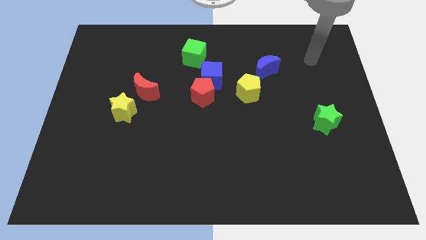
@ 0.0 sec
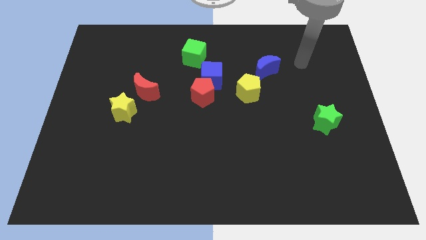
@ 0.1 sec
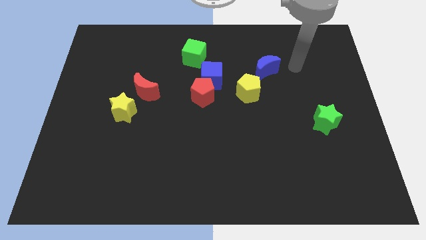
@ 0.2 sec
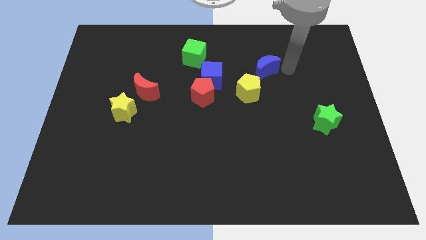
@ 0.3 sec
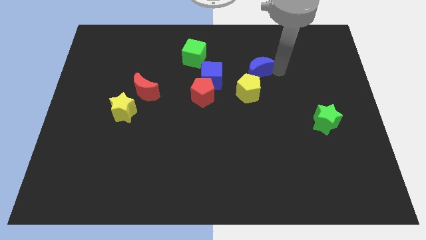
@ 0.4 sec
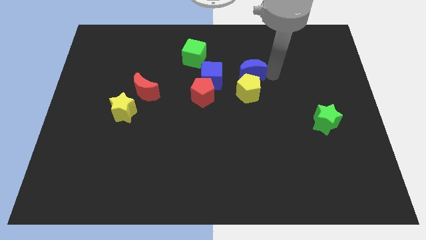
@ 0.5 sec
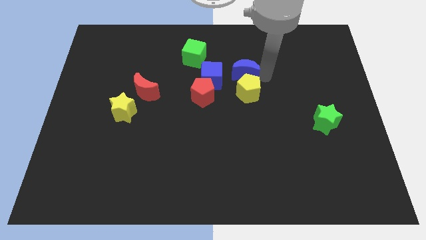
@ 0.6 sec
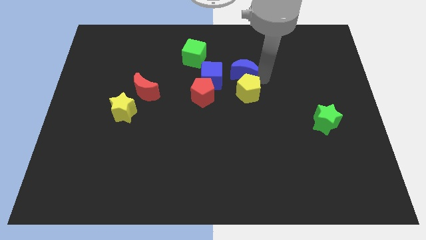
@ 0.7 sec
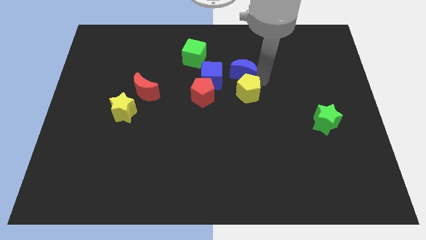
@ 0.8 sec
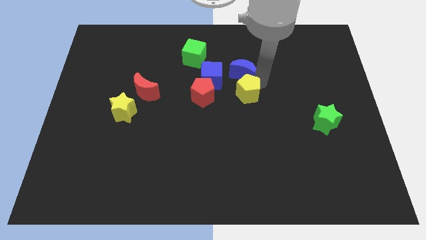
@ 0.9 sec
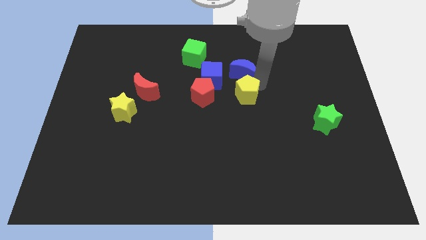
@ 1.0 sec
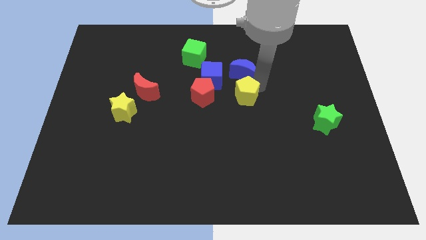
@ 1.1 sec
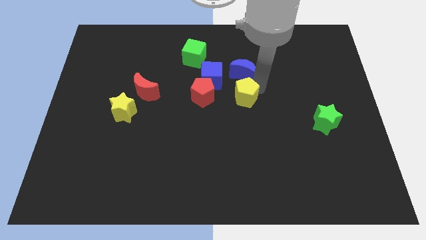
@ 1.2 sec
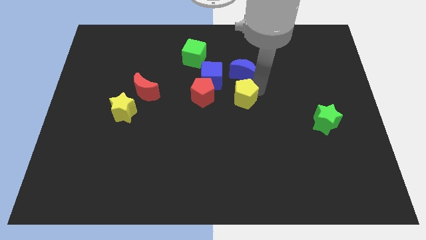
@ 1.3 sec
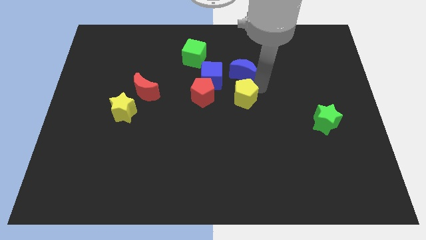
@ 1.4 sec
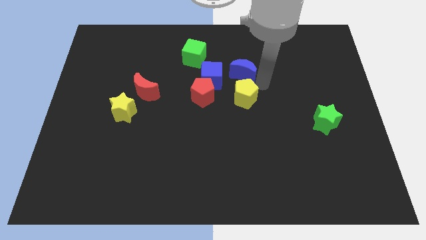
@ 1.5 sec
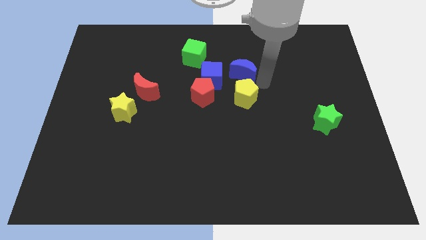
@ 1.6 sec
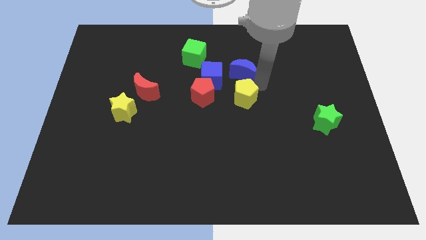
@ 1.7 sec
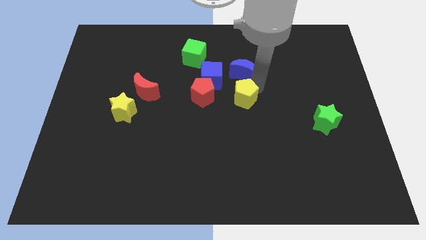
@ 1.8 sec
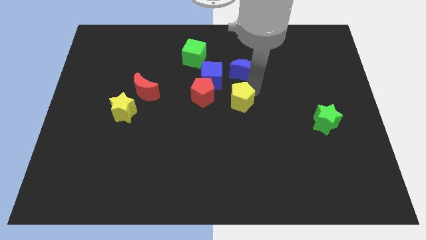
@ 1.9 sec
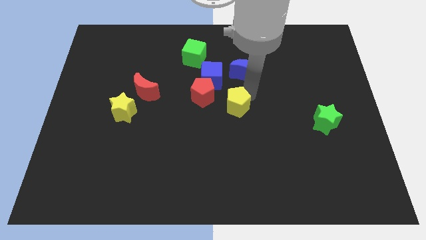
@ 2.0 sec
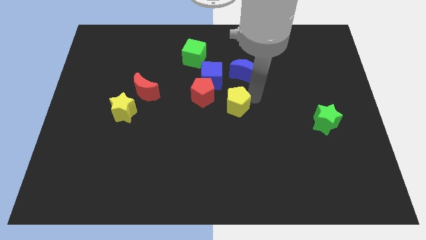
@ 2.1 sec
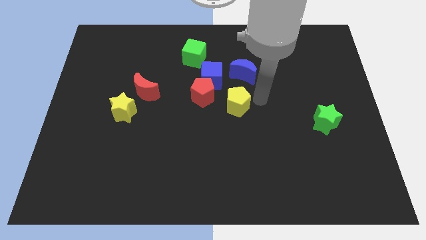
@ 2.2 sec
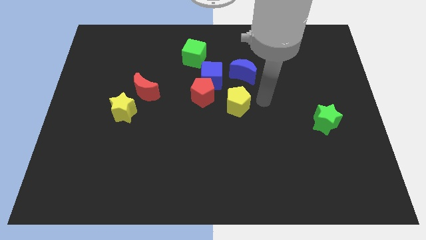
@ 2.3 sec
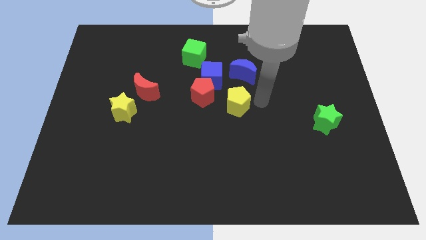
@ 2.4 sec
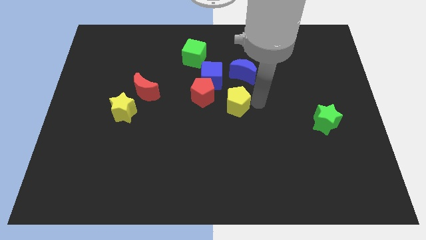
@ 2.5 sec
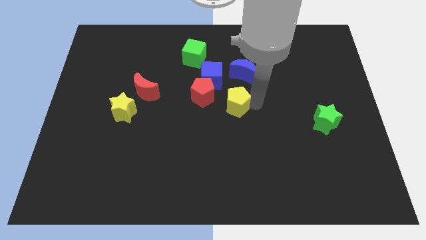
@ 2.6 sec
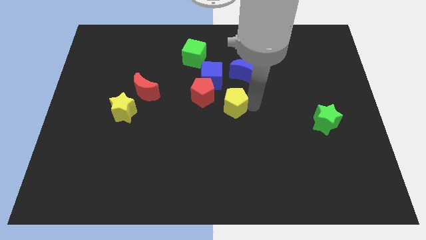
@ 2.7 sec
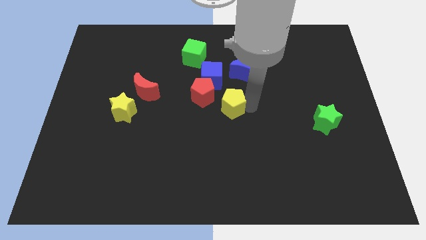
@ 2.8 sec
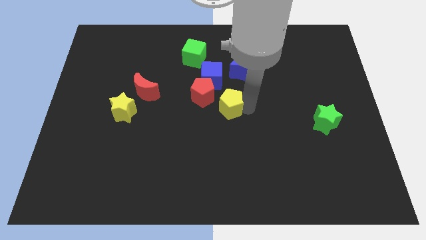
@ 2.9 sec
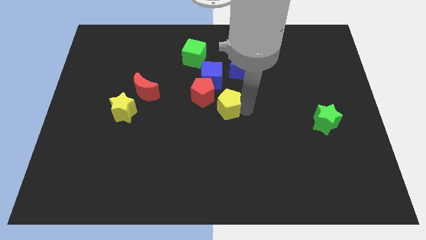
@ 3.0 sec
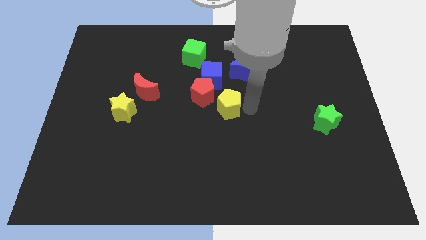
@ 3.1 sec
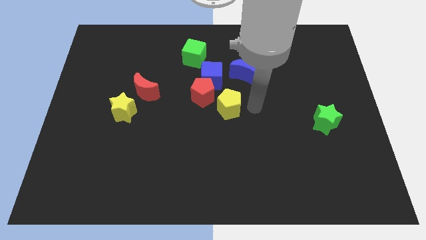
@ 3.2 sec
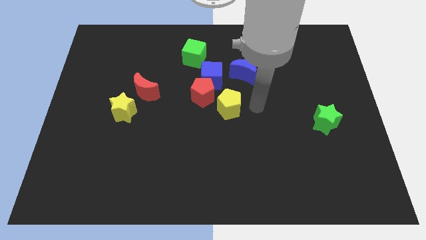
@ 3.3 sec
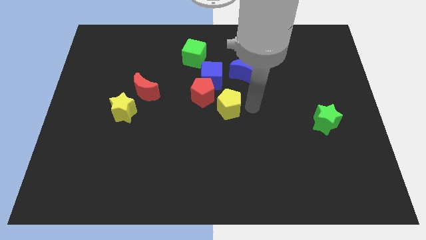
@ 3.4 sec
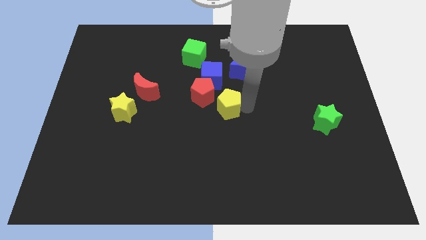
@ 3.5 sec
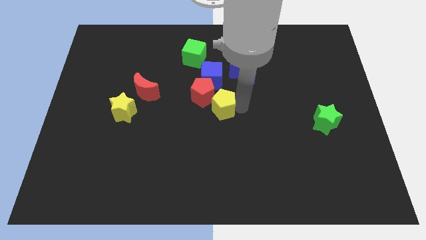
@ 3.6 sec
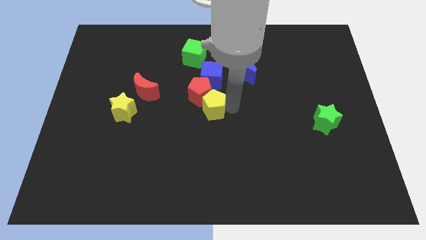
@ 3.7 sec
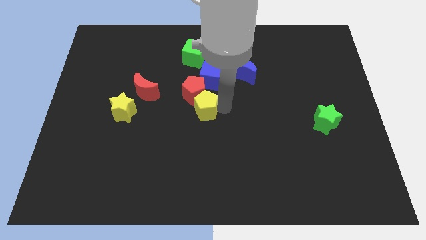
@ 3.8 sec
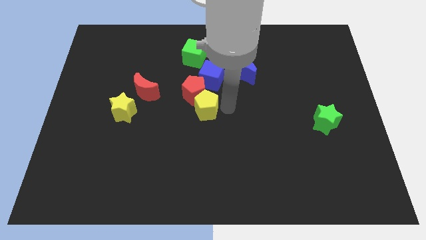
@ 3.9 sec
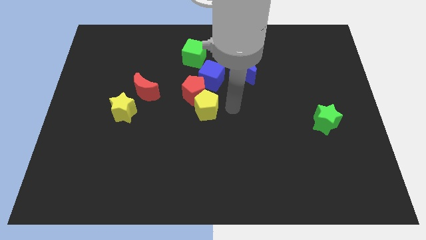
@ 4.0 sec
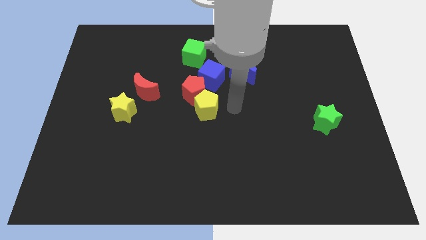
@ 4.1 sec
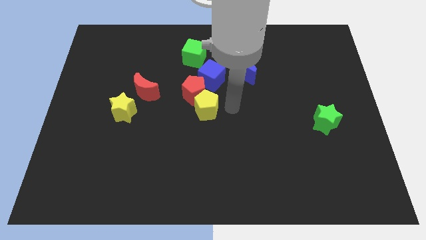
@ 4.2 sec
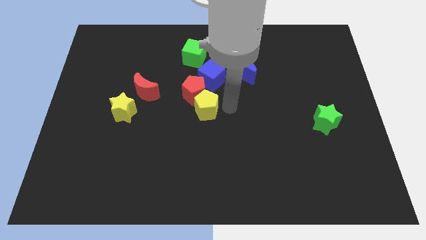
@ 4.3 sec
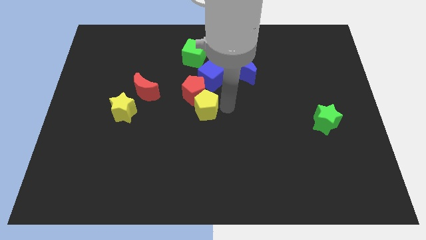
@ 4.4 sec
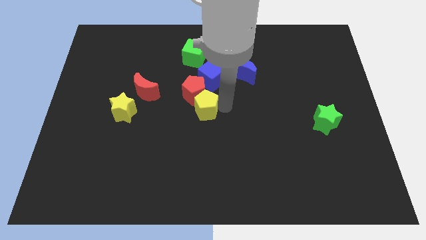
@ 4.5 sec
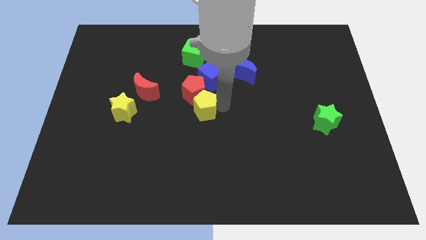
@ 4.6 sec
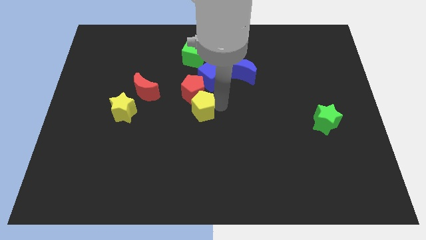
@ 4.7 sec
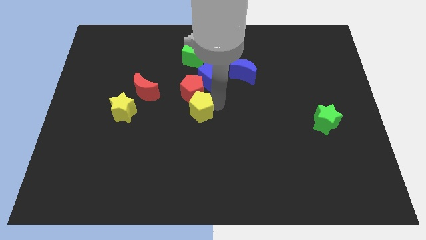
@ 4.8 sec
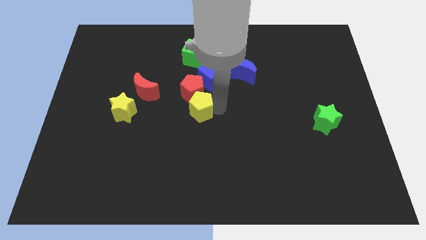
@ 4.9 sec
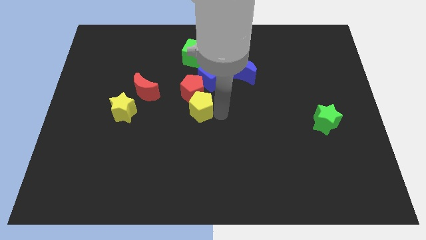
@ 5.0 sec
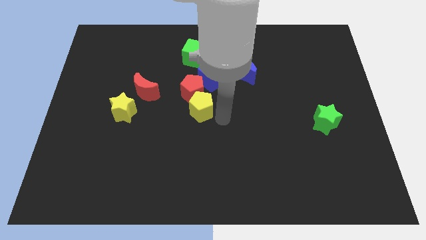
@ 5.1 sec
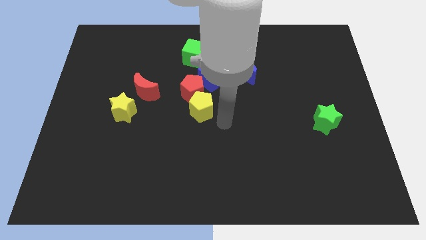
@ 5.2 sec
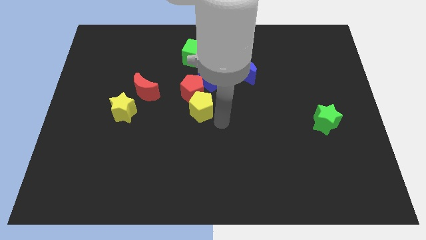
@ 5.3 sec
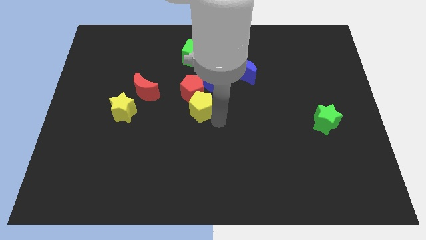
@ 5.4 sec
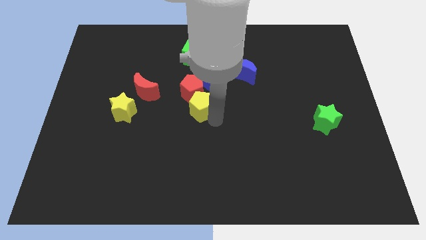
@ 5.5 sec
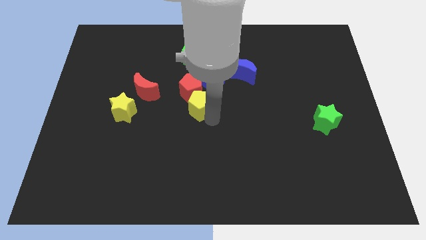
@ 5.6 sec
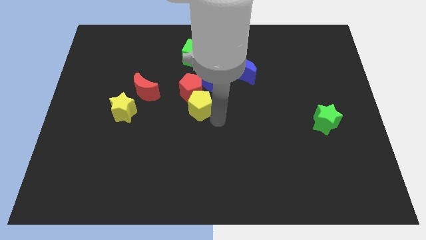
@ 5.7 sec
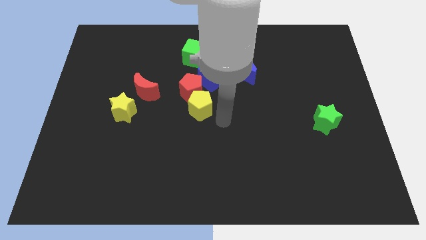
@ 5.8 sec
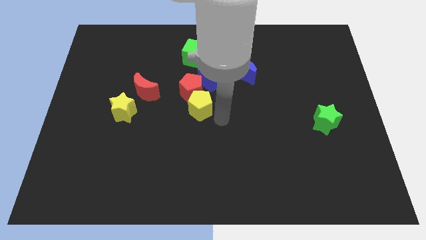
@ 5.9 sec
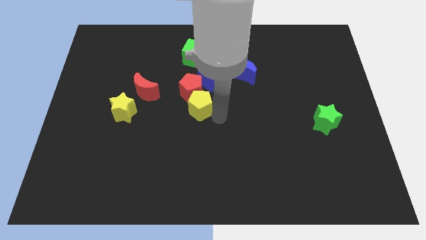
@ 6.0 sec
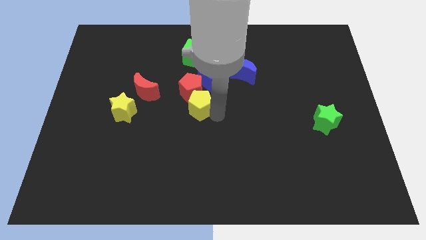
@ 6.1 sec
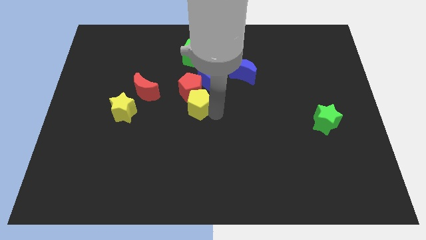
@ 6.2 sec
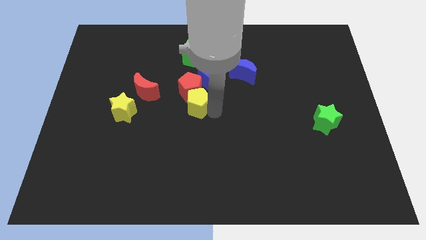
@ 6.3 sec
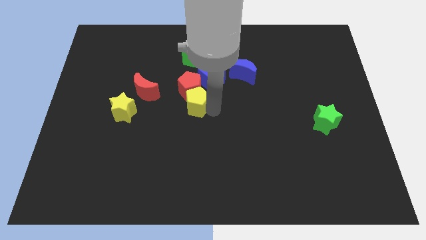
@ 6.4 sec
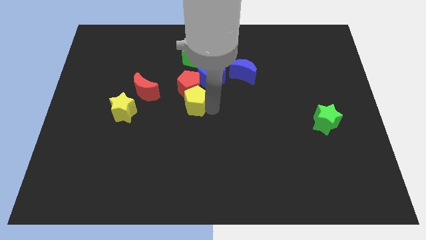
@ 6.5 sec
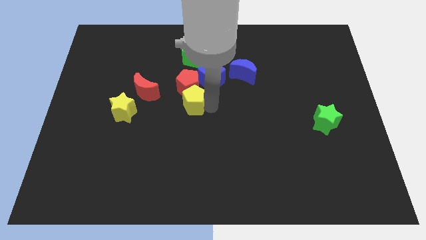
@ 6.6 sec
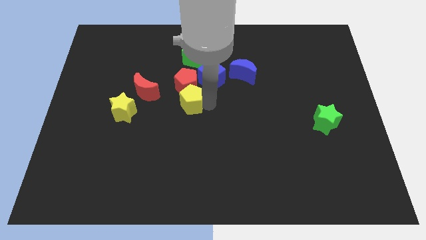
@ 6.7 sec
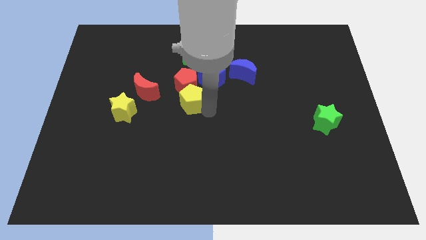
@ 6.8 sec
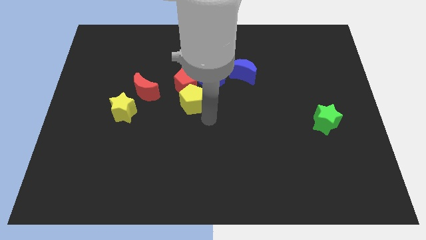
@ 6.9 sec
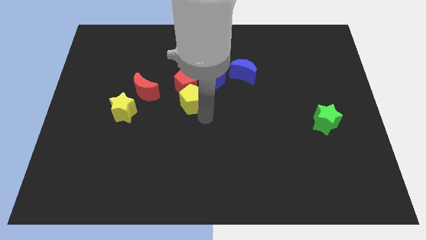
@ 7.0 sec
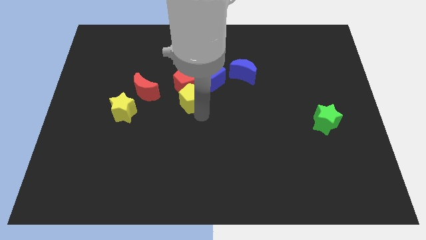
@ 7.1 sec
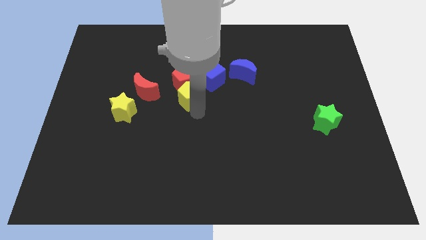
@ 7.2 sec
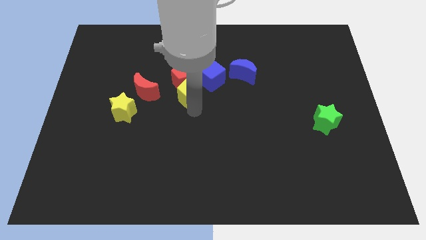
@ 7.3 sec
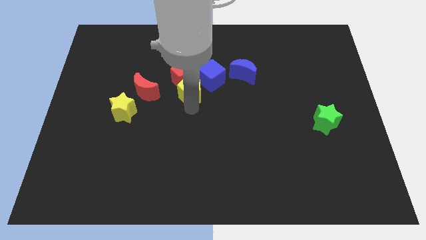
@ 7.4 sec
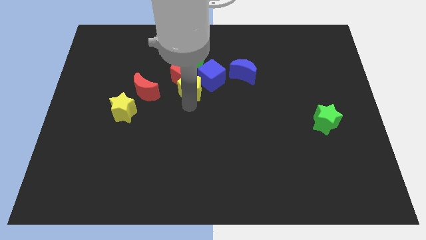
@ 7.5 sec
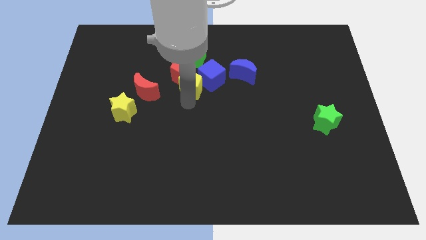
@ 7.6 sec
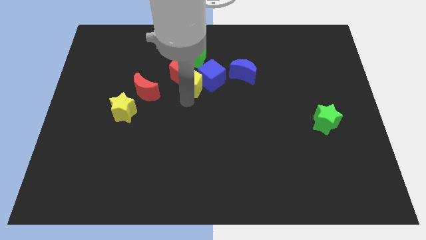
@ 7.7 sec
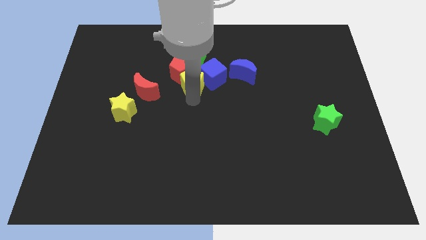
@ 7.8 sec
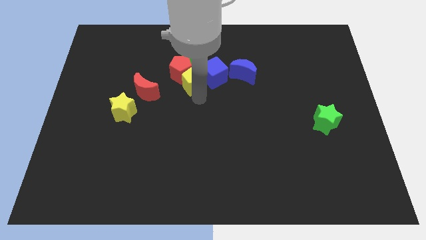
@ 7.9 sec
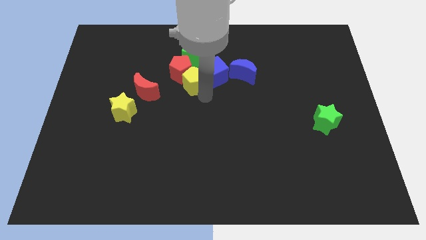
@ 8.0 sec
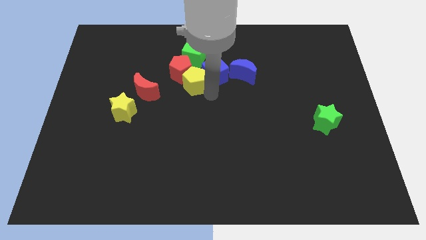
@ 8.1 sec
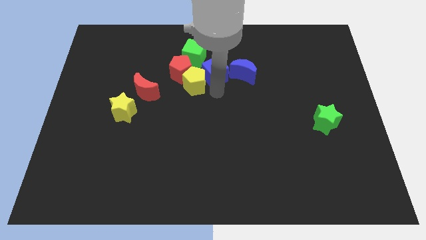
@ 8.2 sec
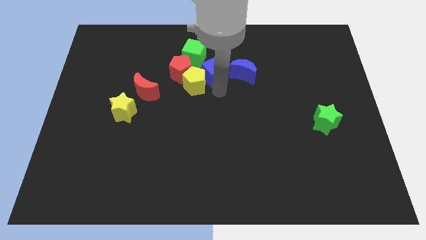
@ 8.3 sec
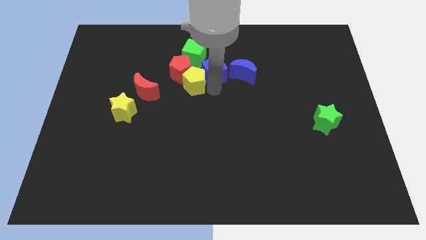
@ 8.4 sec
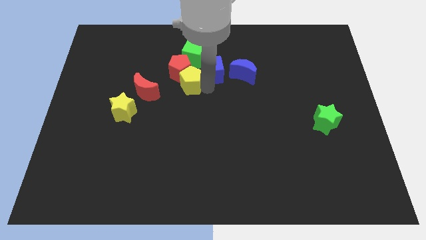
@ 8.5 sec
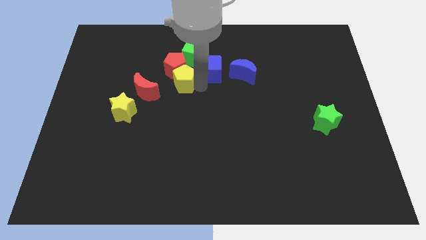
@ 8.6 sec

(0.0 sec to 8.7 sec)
push the yellow pentagon to the top right of the red moon
